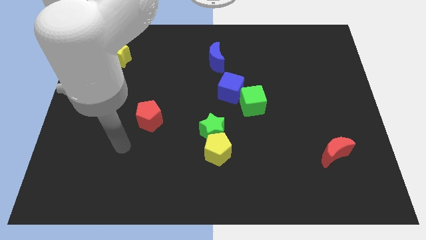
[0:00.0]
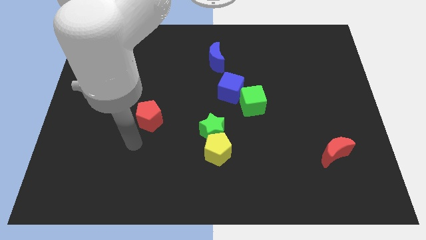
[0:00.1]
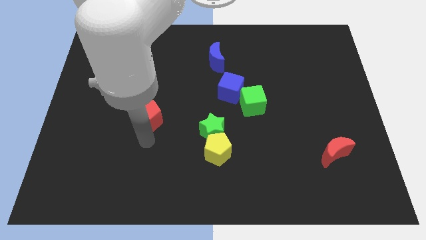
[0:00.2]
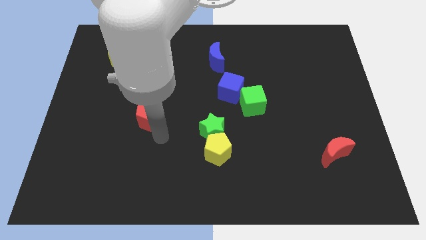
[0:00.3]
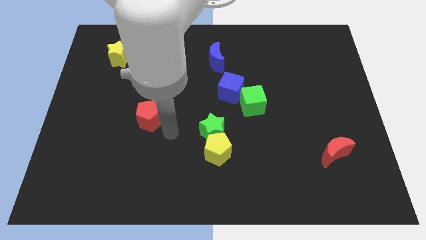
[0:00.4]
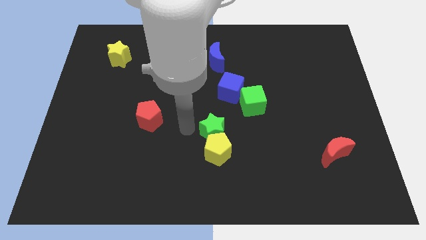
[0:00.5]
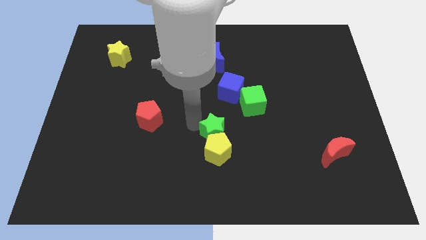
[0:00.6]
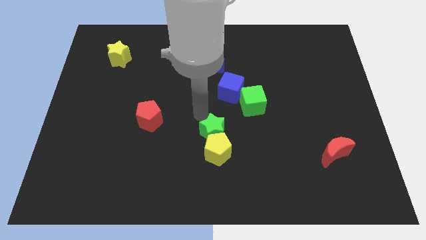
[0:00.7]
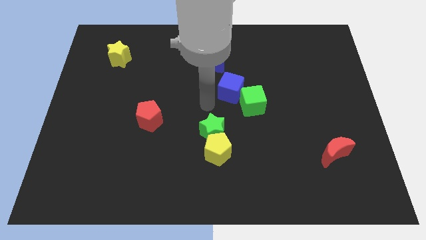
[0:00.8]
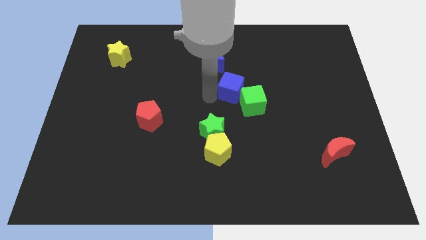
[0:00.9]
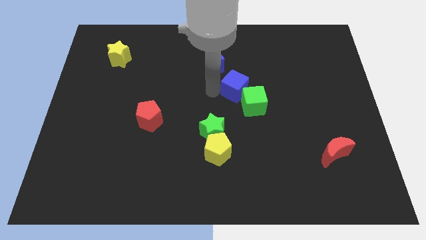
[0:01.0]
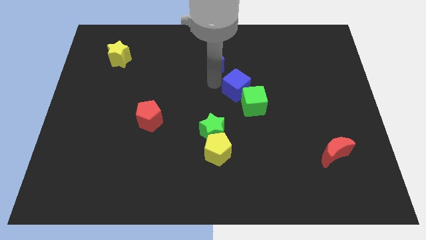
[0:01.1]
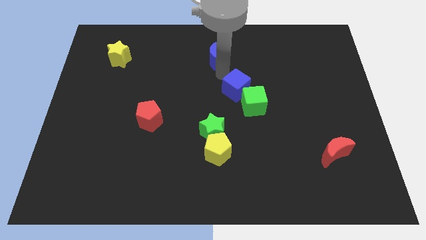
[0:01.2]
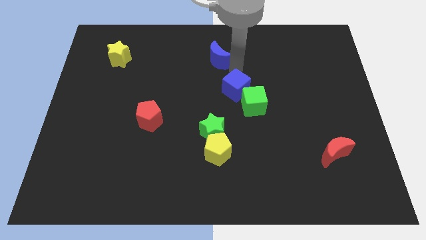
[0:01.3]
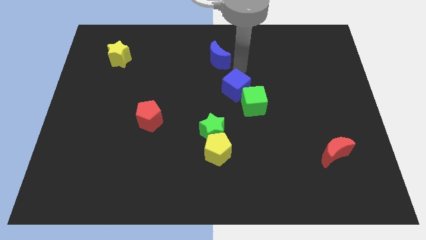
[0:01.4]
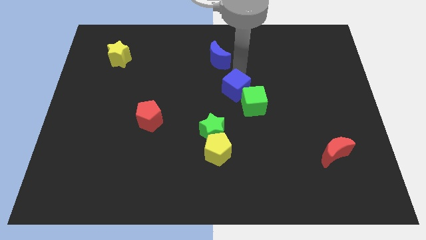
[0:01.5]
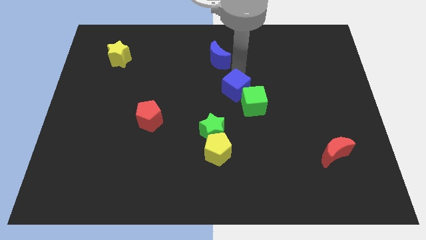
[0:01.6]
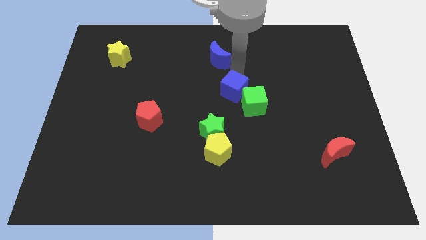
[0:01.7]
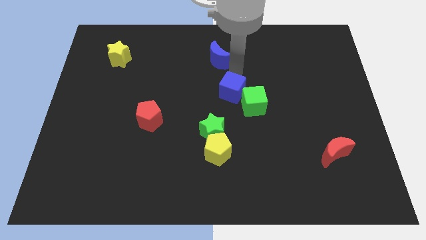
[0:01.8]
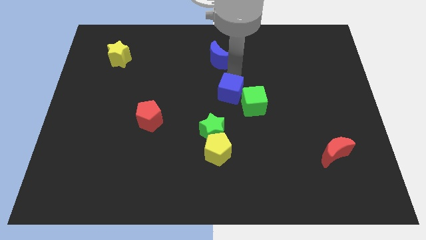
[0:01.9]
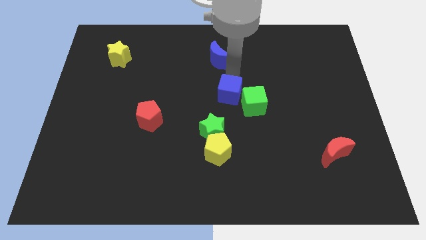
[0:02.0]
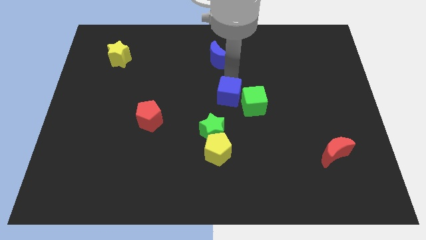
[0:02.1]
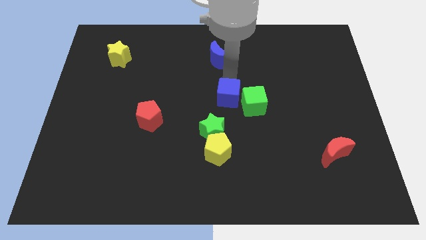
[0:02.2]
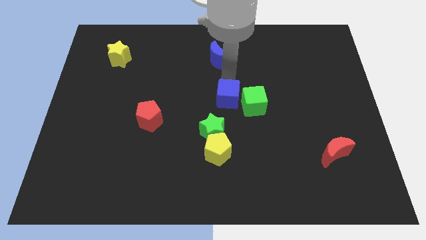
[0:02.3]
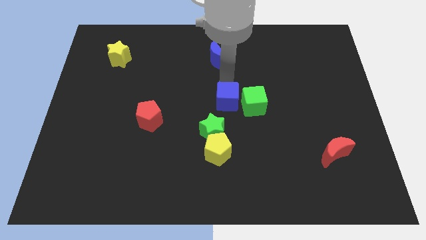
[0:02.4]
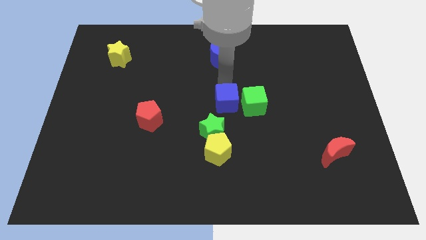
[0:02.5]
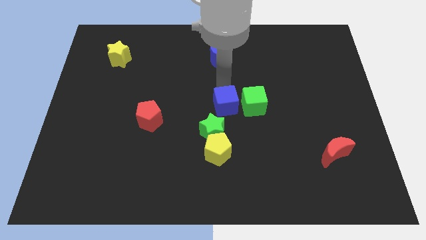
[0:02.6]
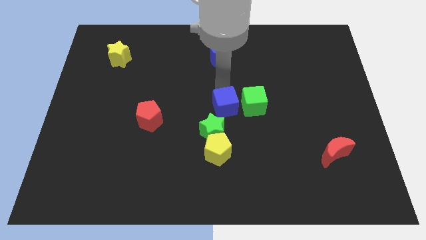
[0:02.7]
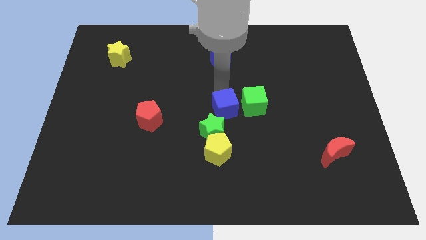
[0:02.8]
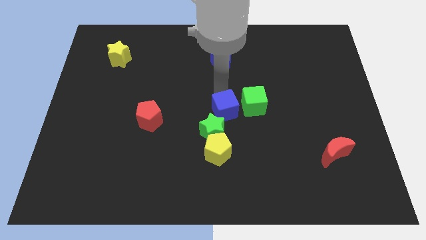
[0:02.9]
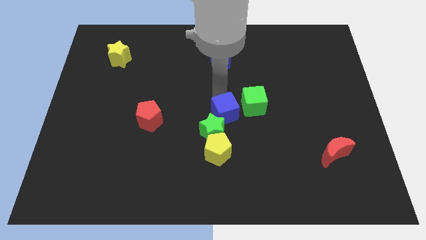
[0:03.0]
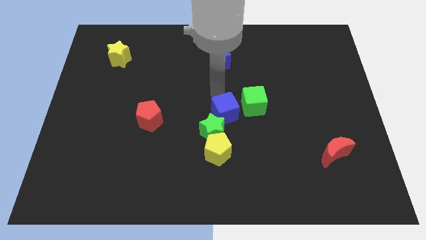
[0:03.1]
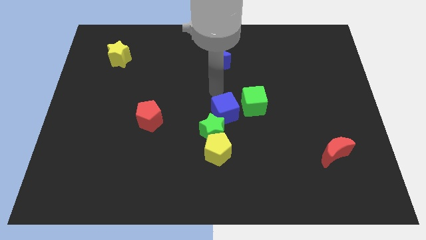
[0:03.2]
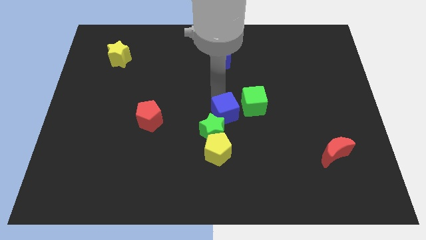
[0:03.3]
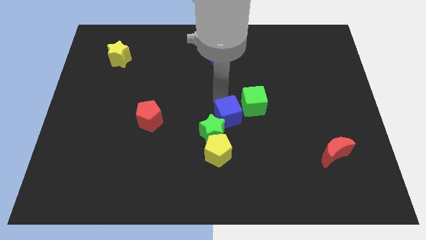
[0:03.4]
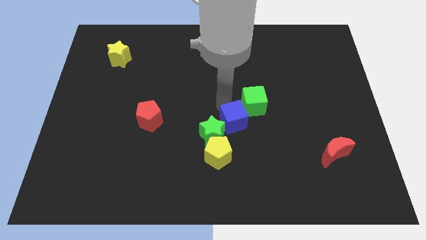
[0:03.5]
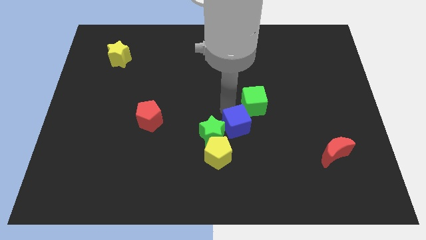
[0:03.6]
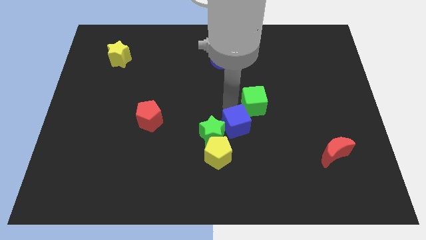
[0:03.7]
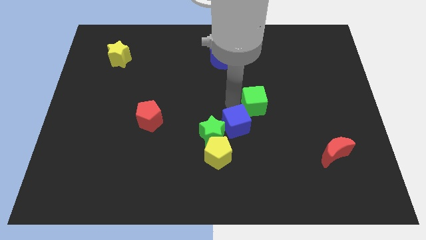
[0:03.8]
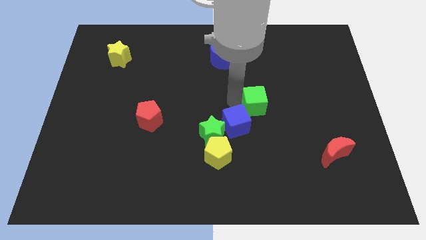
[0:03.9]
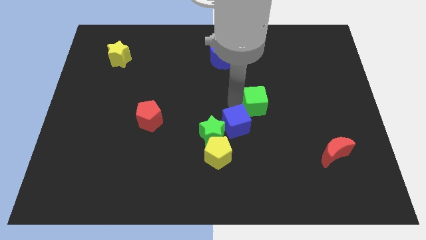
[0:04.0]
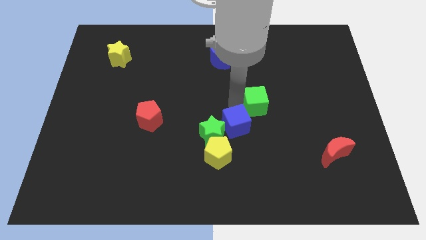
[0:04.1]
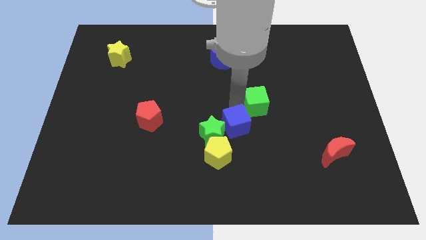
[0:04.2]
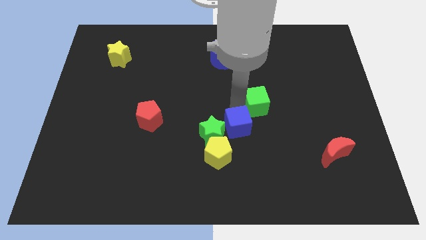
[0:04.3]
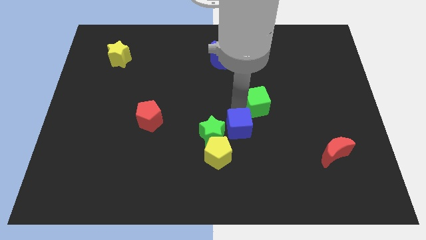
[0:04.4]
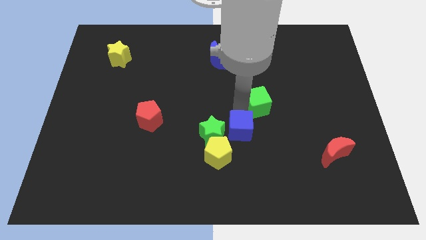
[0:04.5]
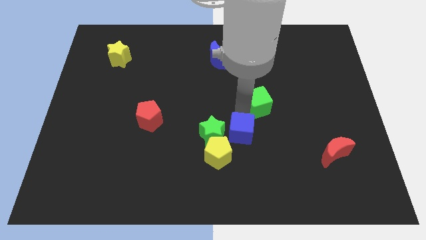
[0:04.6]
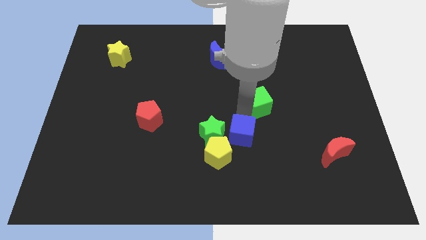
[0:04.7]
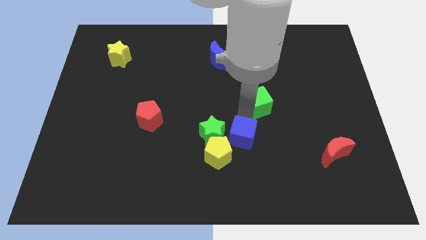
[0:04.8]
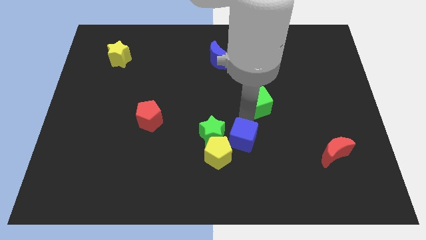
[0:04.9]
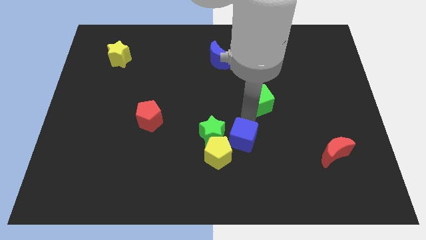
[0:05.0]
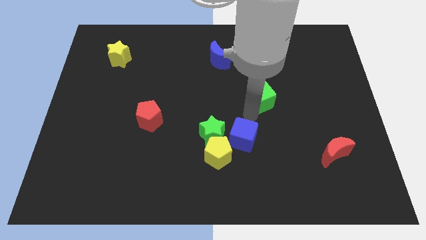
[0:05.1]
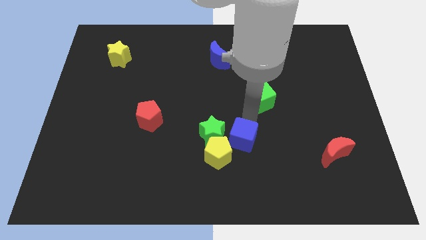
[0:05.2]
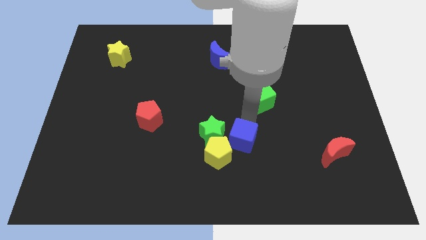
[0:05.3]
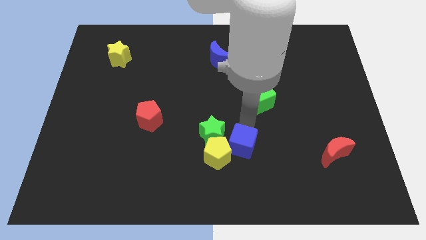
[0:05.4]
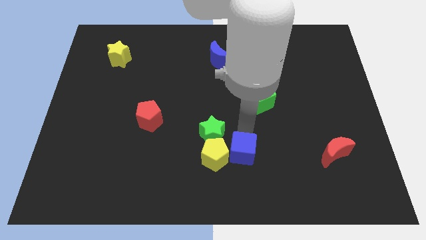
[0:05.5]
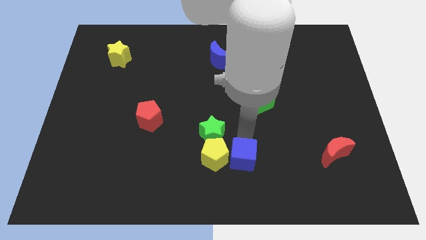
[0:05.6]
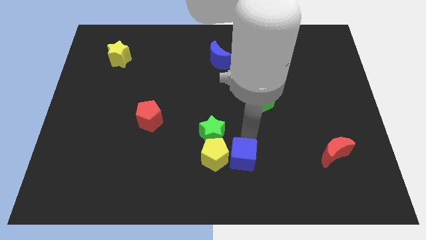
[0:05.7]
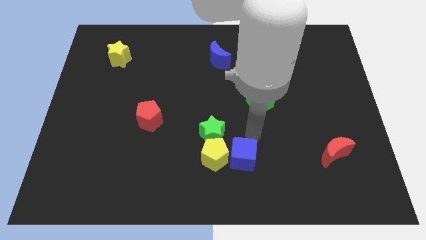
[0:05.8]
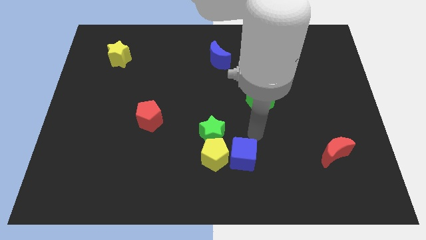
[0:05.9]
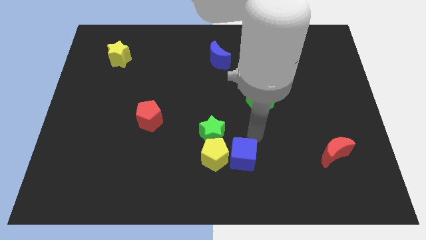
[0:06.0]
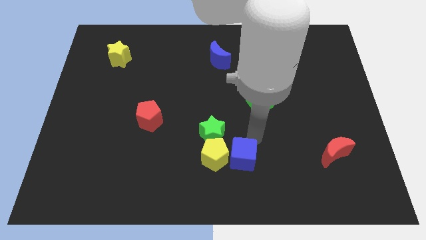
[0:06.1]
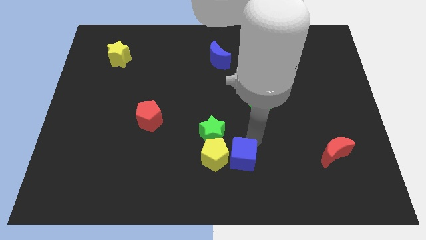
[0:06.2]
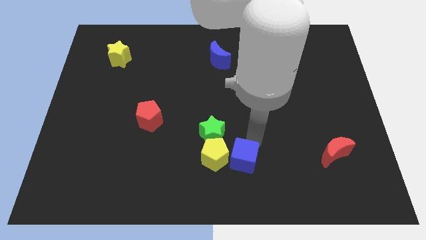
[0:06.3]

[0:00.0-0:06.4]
put the blue cube to the bottom side

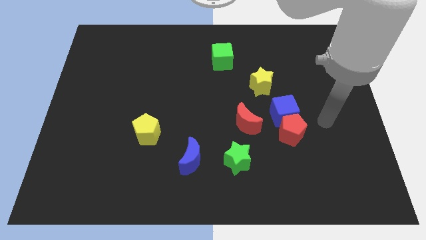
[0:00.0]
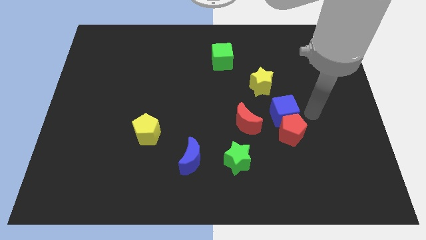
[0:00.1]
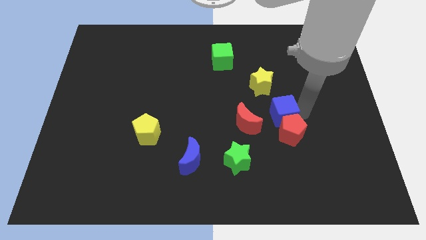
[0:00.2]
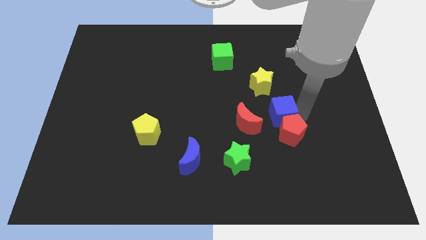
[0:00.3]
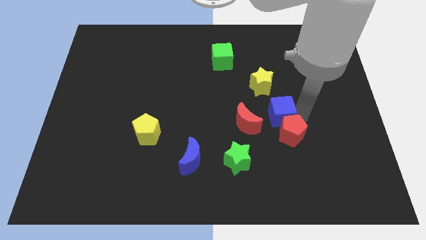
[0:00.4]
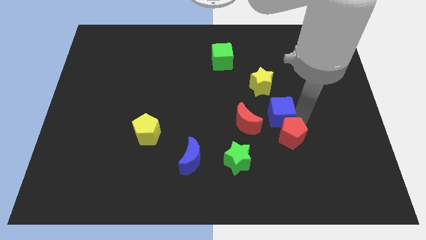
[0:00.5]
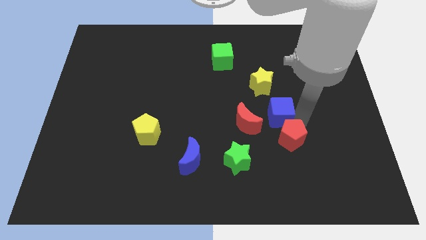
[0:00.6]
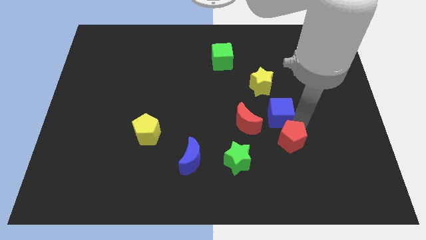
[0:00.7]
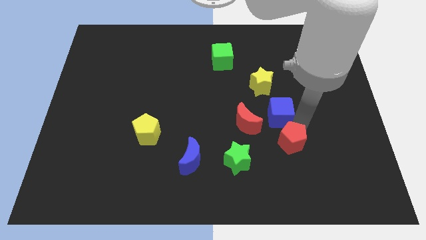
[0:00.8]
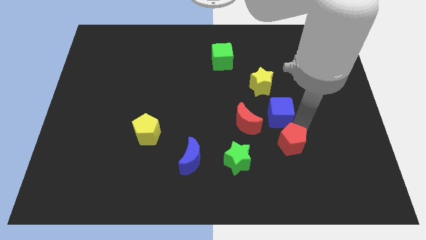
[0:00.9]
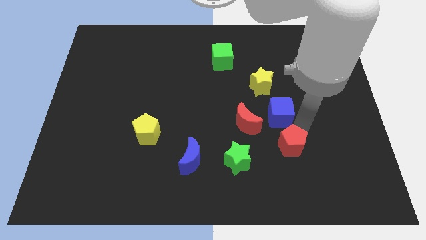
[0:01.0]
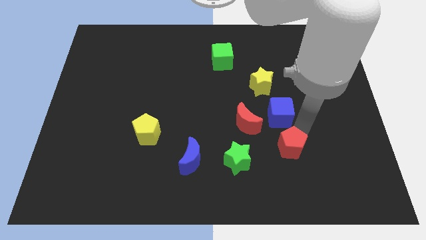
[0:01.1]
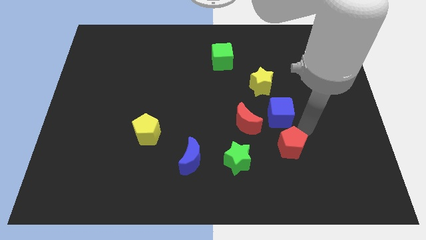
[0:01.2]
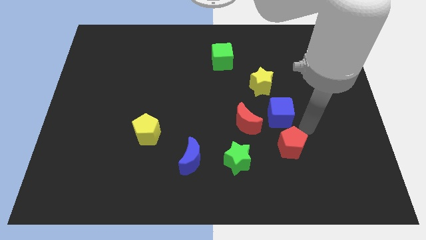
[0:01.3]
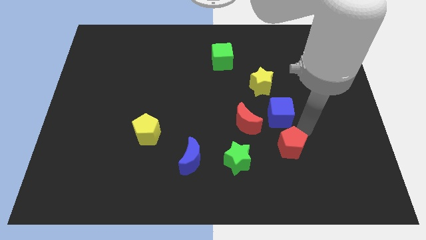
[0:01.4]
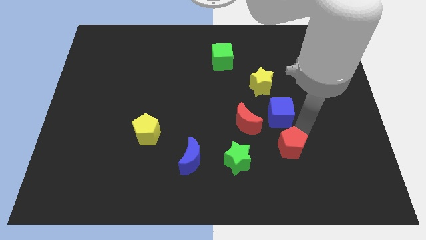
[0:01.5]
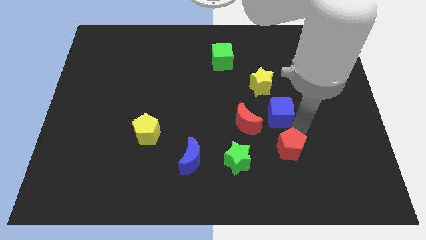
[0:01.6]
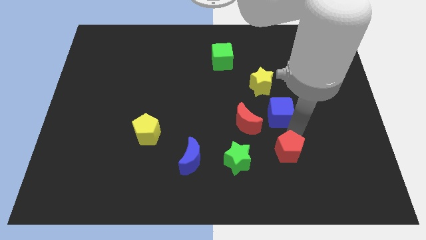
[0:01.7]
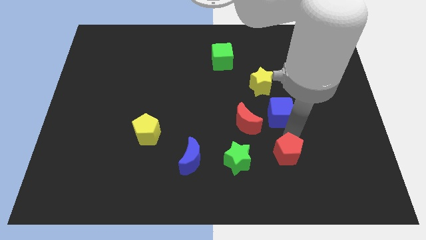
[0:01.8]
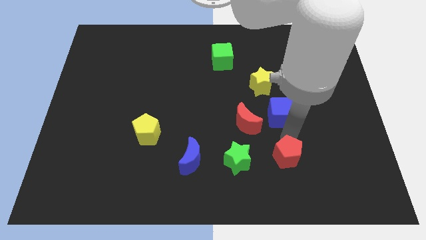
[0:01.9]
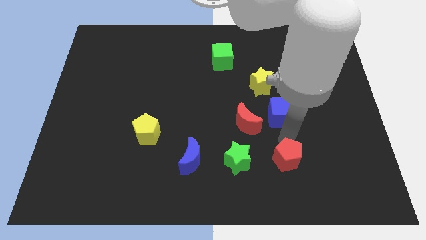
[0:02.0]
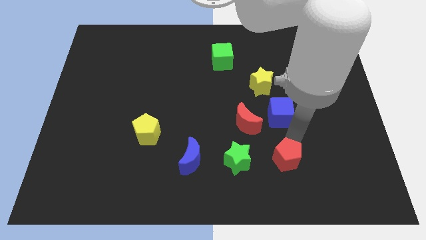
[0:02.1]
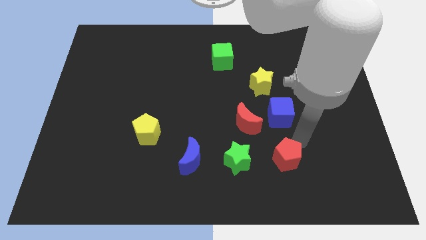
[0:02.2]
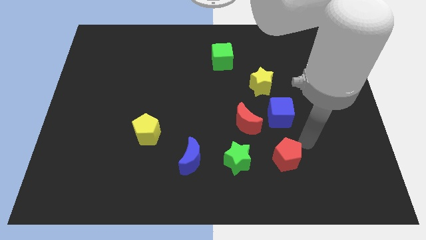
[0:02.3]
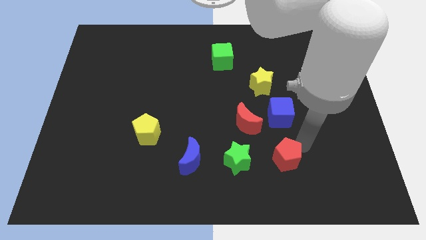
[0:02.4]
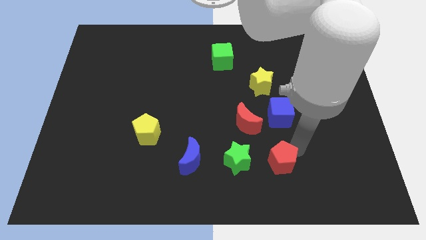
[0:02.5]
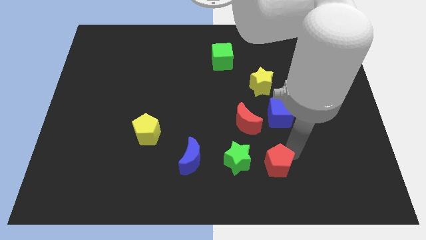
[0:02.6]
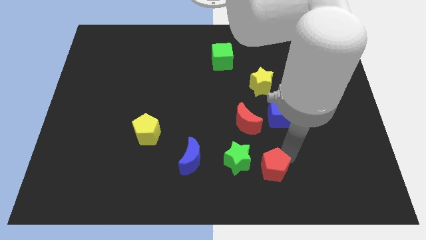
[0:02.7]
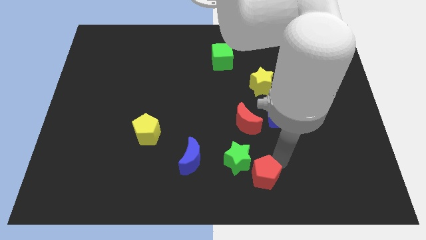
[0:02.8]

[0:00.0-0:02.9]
push the red pentagon to the bottom side
